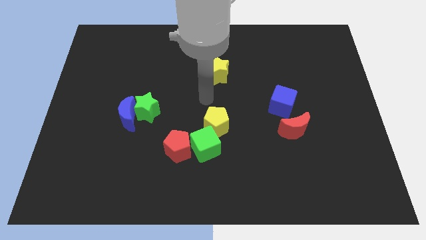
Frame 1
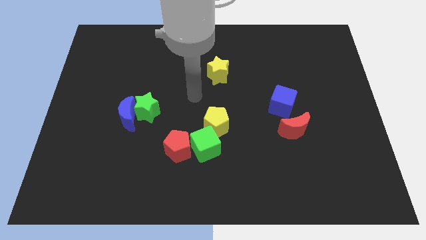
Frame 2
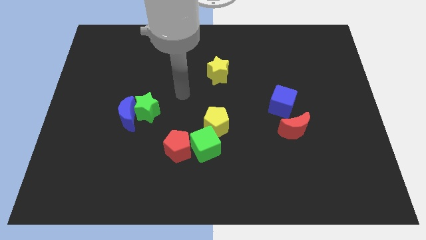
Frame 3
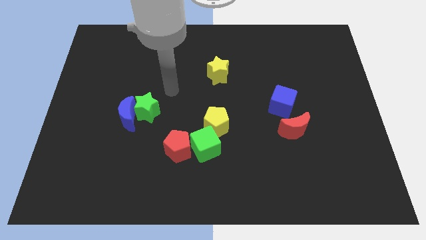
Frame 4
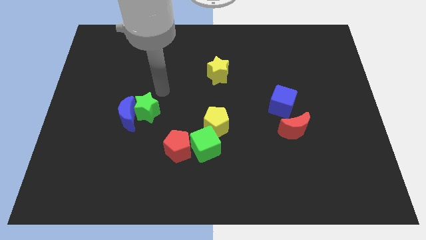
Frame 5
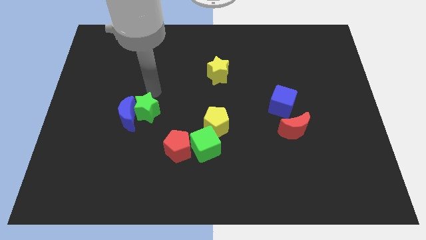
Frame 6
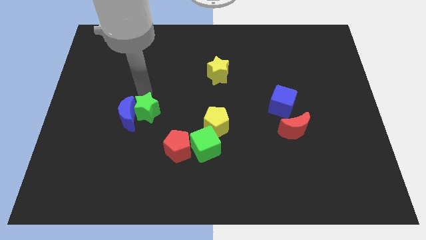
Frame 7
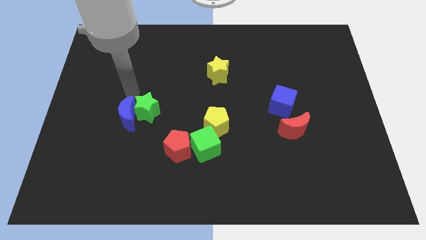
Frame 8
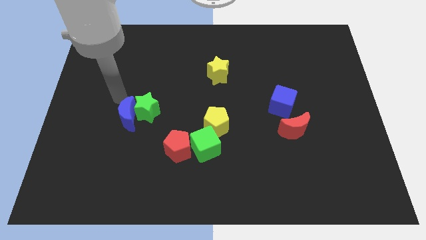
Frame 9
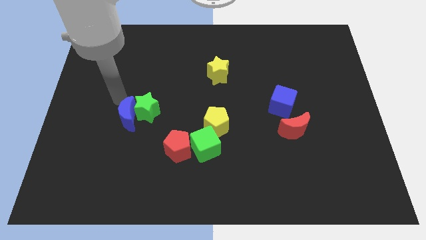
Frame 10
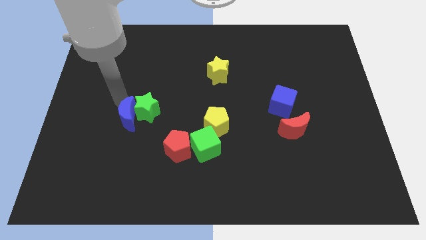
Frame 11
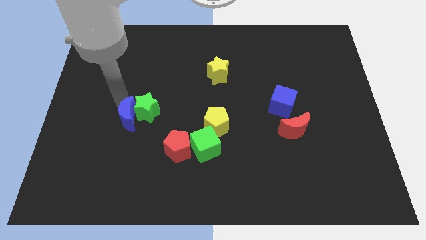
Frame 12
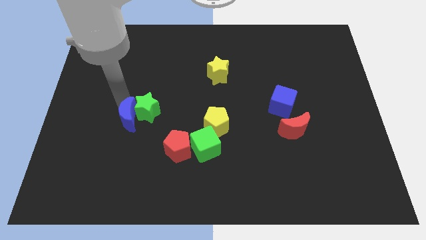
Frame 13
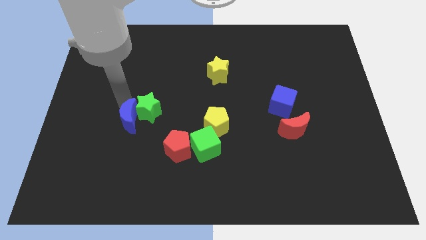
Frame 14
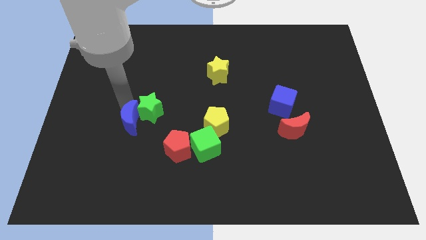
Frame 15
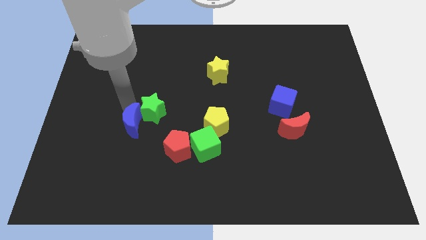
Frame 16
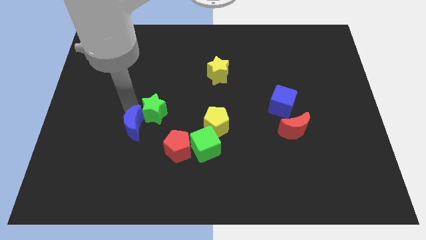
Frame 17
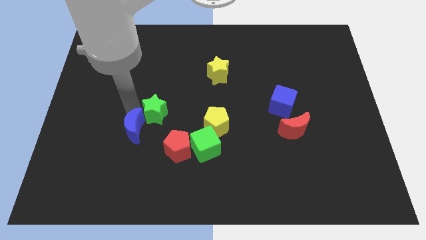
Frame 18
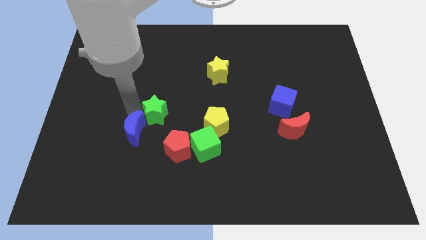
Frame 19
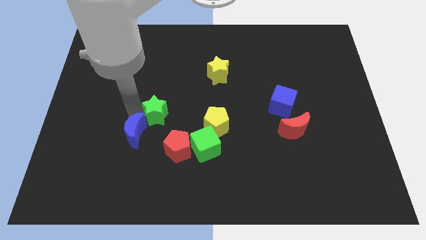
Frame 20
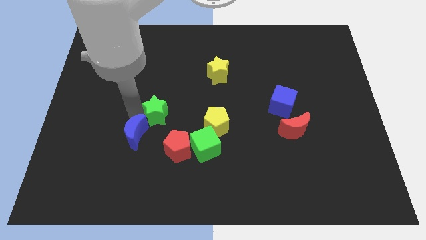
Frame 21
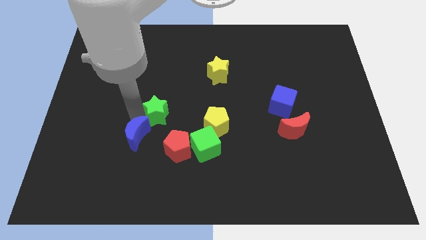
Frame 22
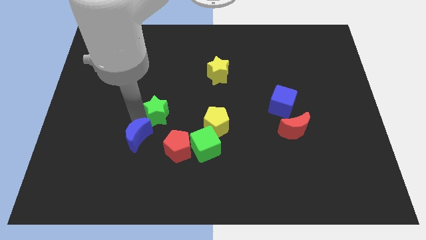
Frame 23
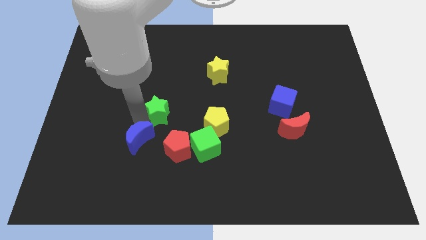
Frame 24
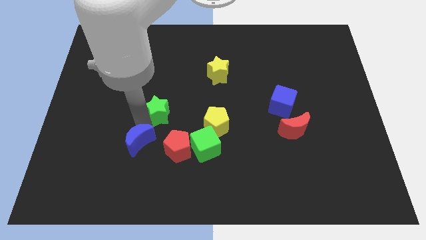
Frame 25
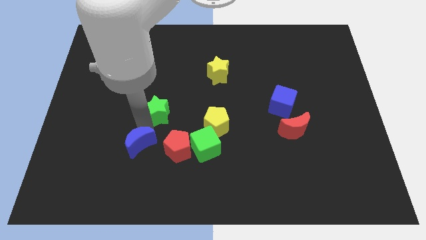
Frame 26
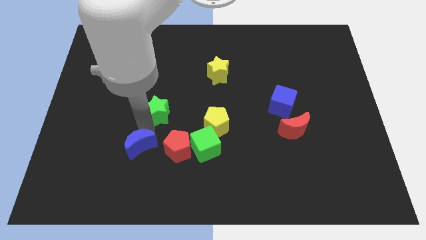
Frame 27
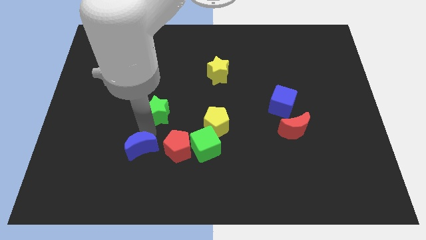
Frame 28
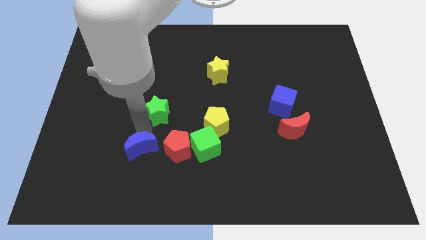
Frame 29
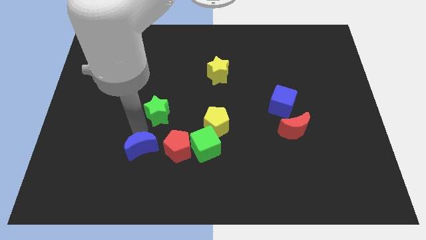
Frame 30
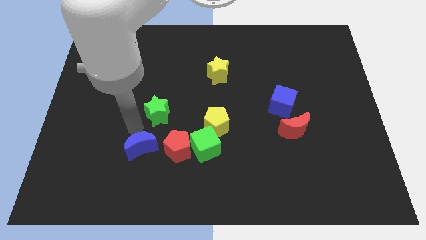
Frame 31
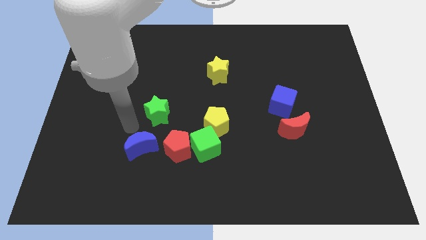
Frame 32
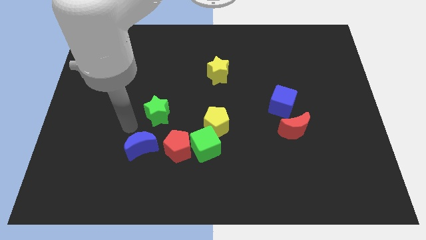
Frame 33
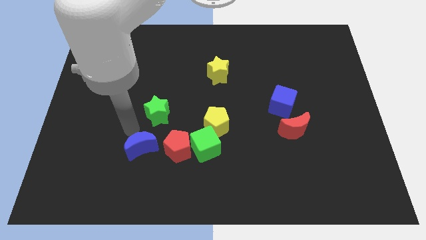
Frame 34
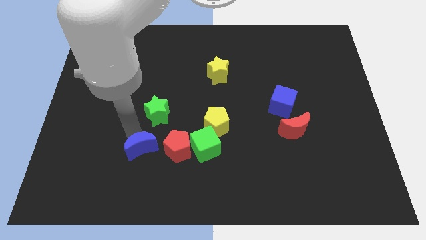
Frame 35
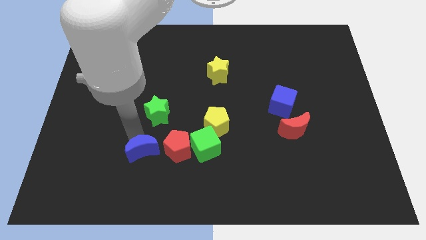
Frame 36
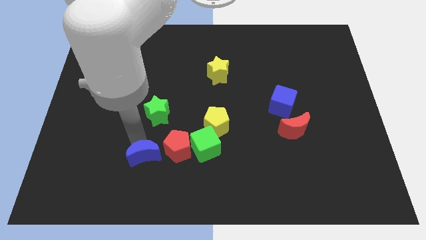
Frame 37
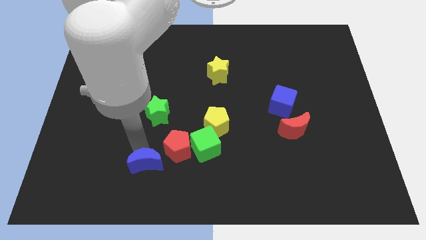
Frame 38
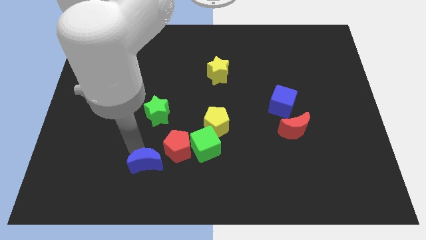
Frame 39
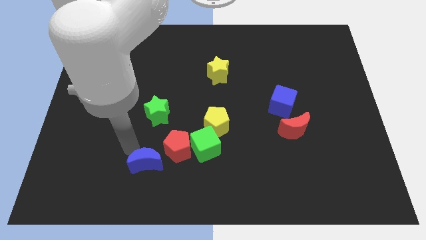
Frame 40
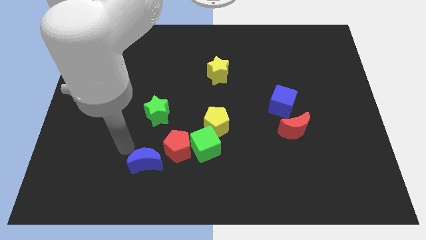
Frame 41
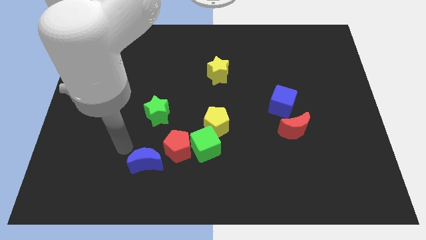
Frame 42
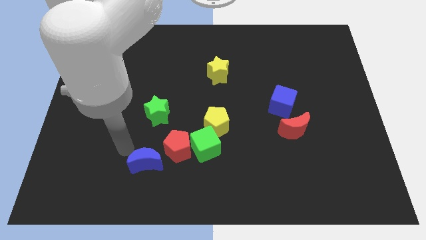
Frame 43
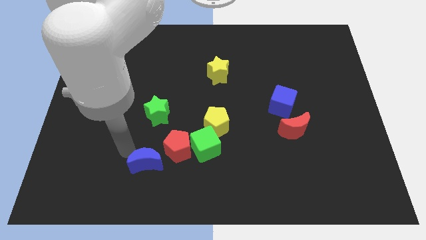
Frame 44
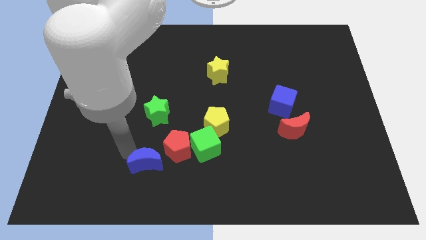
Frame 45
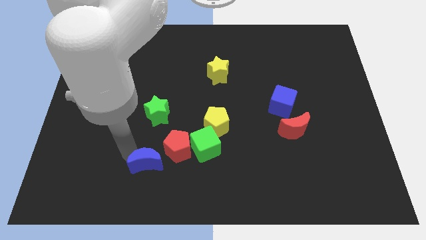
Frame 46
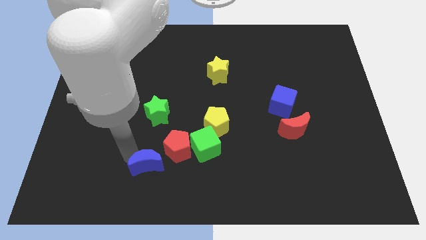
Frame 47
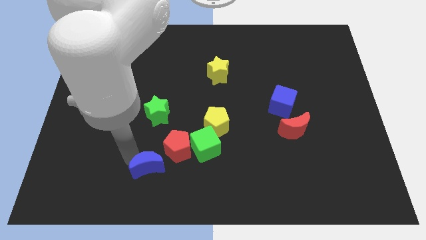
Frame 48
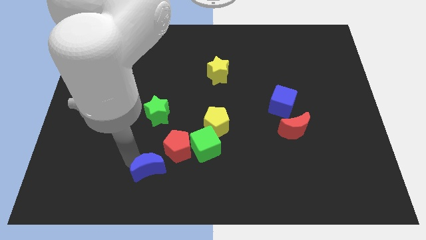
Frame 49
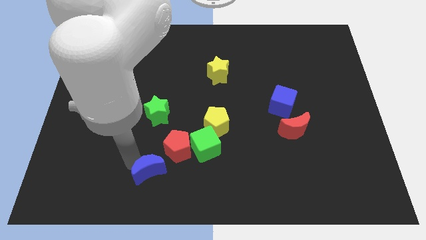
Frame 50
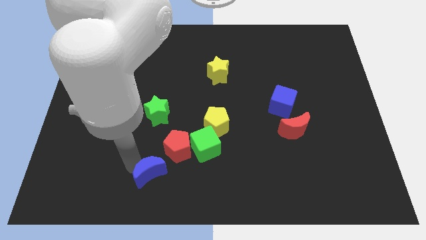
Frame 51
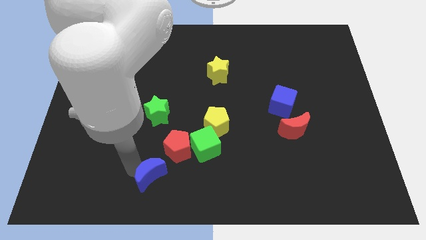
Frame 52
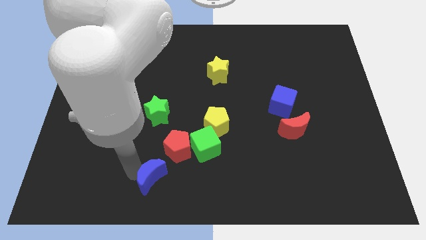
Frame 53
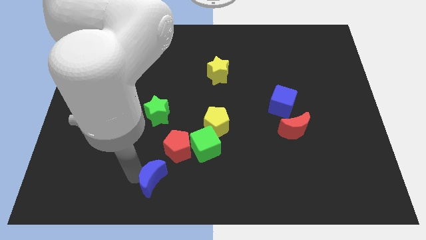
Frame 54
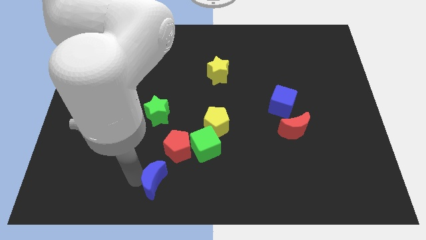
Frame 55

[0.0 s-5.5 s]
move the blue moon to the bottom

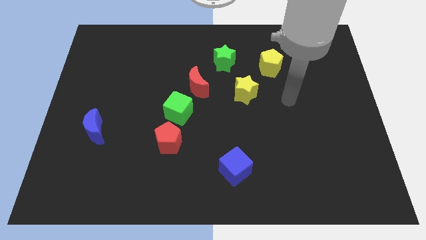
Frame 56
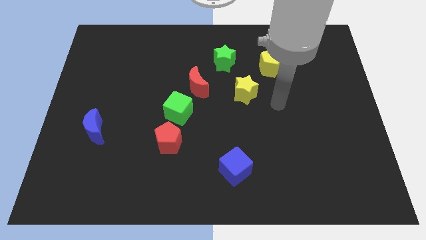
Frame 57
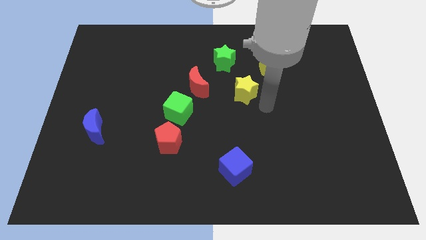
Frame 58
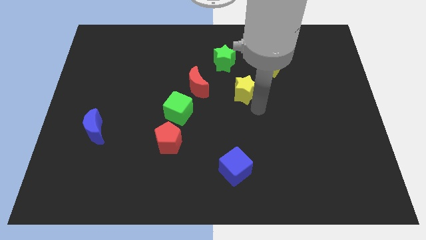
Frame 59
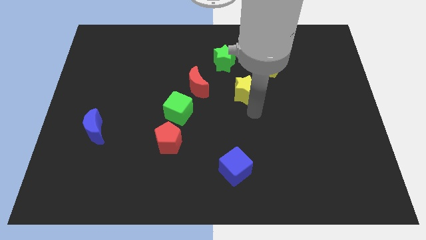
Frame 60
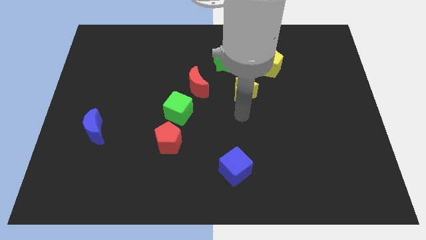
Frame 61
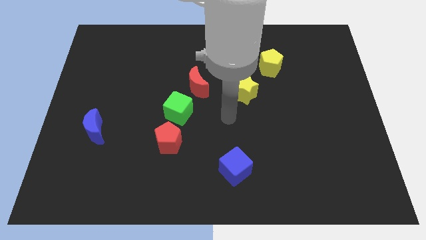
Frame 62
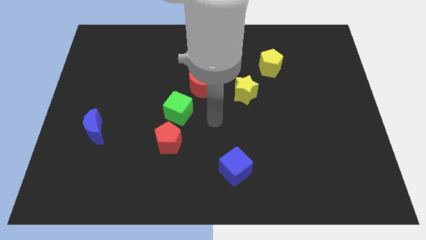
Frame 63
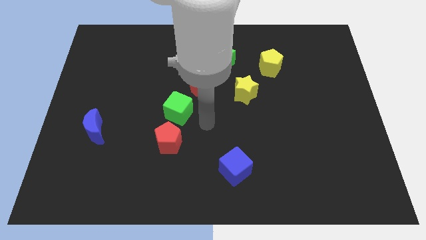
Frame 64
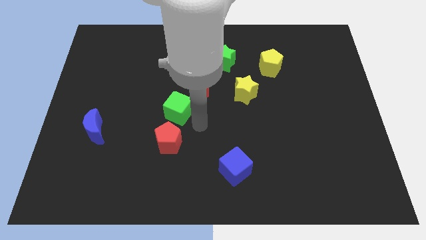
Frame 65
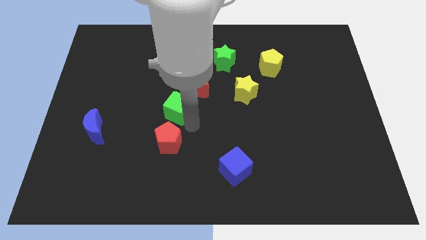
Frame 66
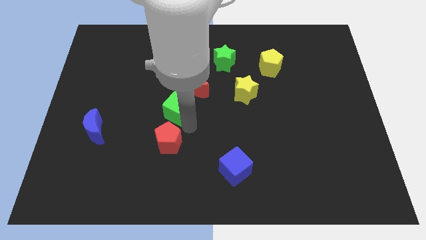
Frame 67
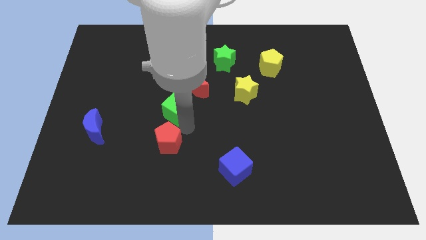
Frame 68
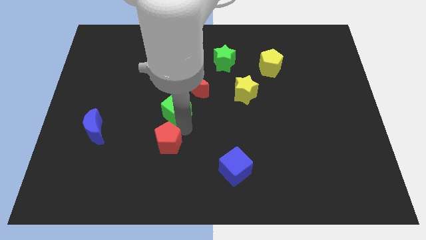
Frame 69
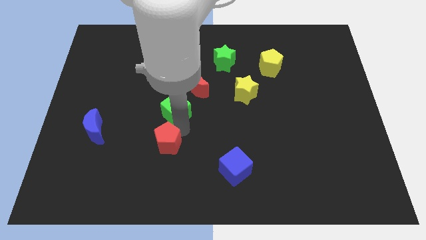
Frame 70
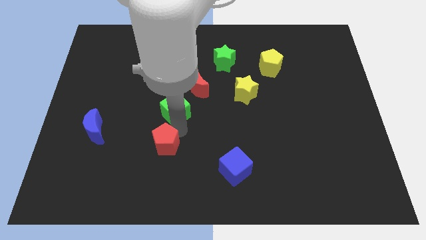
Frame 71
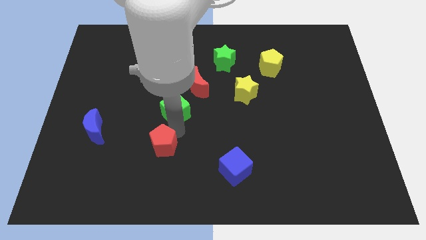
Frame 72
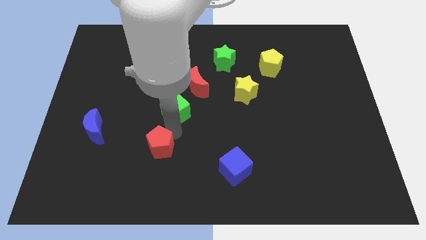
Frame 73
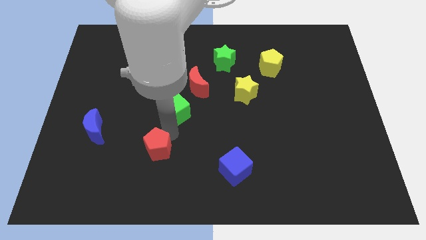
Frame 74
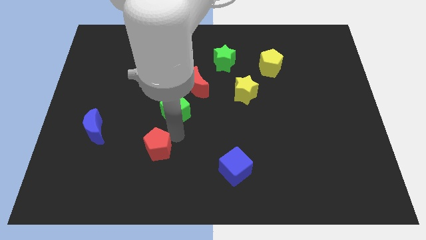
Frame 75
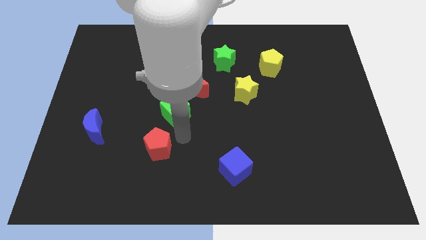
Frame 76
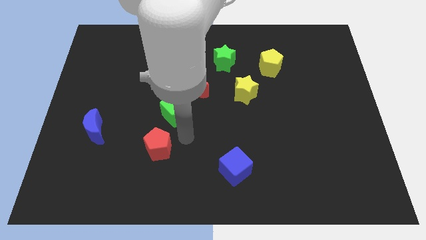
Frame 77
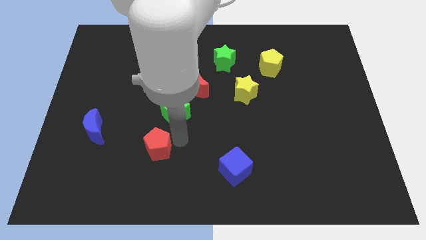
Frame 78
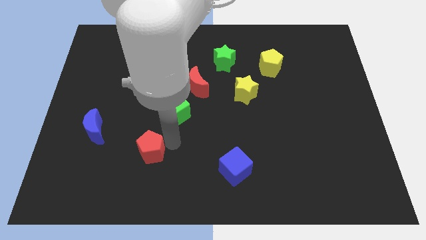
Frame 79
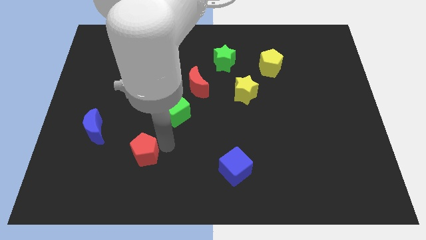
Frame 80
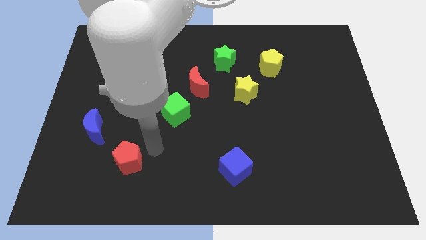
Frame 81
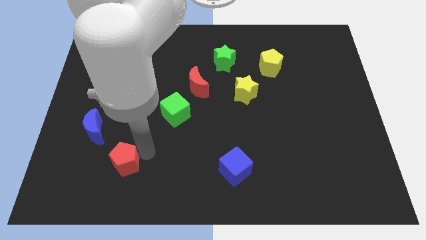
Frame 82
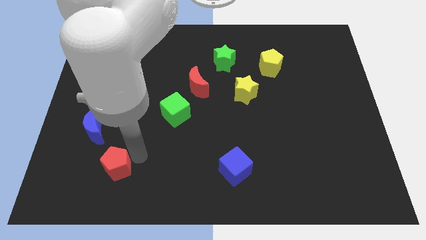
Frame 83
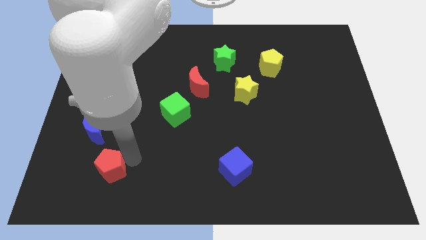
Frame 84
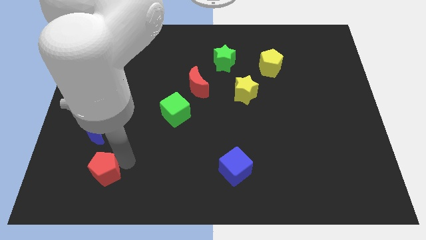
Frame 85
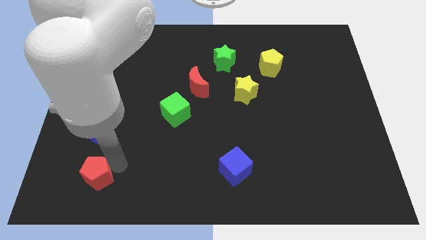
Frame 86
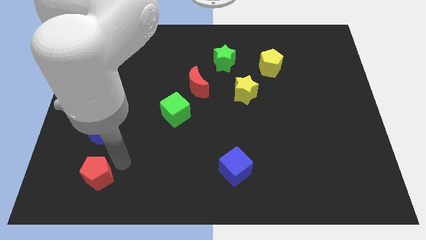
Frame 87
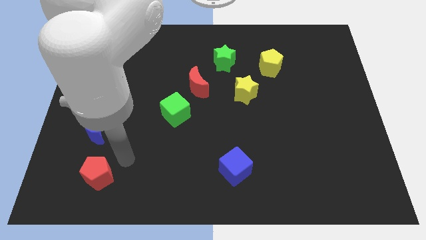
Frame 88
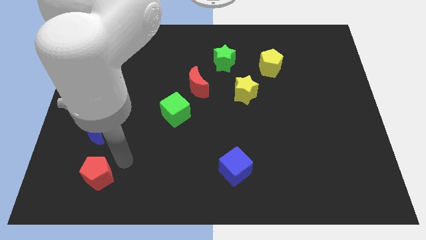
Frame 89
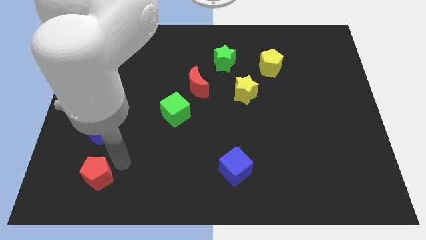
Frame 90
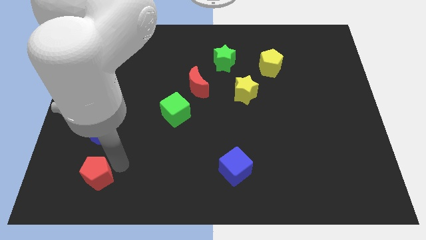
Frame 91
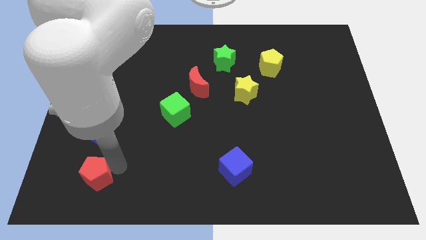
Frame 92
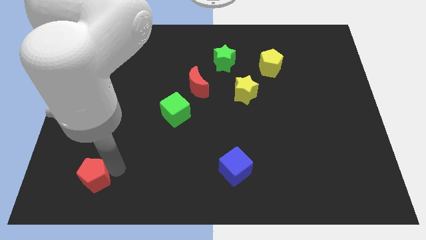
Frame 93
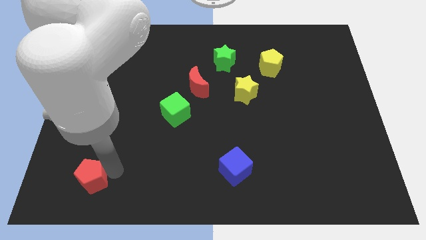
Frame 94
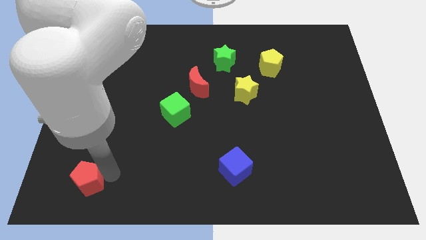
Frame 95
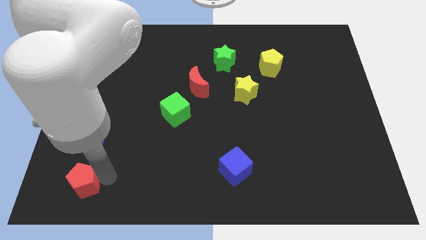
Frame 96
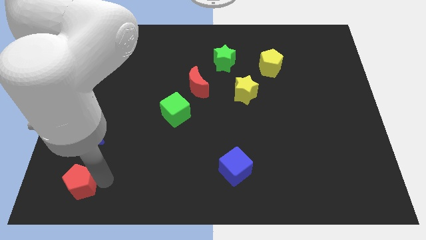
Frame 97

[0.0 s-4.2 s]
push the red pentagon to the bottom left
